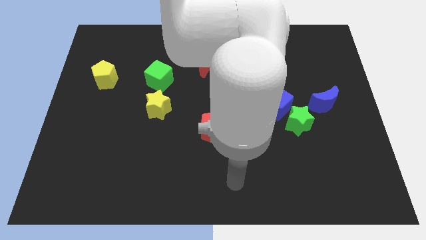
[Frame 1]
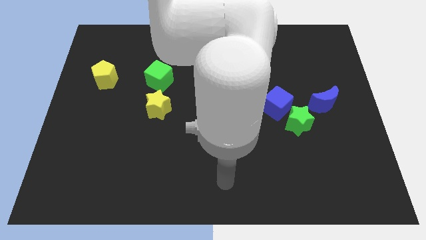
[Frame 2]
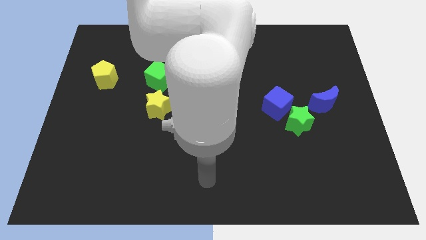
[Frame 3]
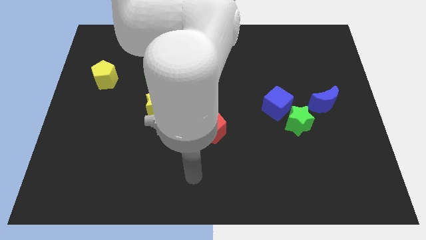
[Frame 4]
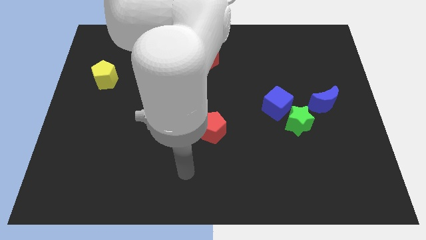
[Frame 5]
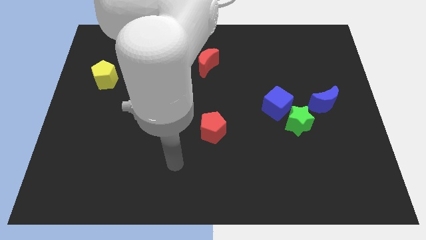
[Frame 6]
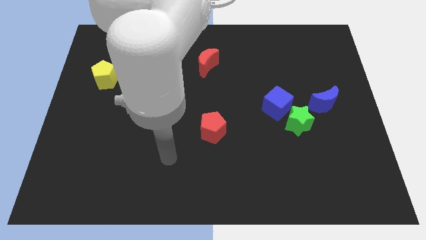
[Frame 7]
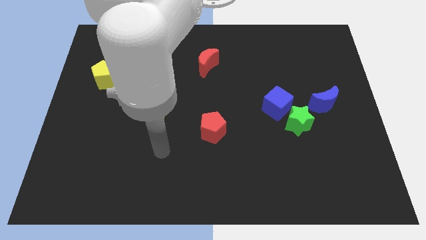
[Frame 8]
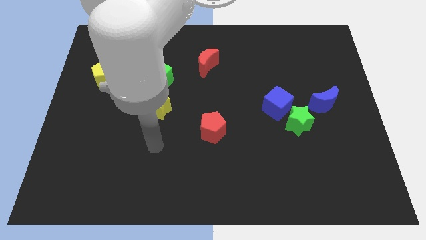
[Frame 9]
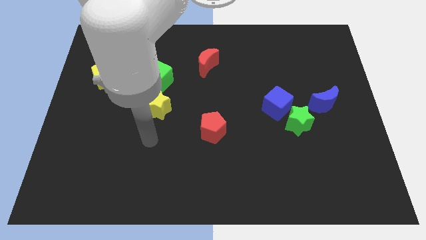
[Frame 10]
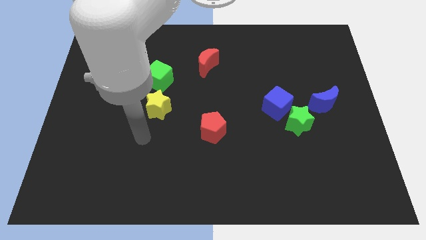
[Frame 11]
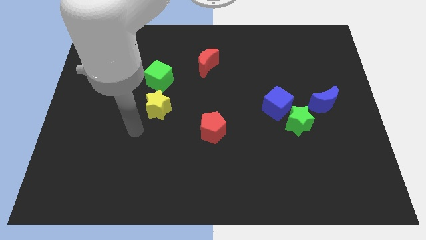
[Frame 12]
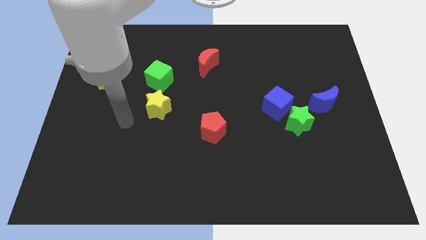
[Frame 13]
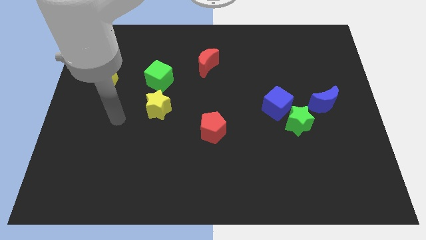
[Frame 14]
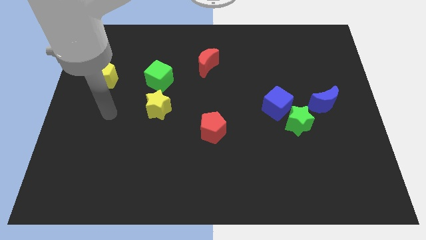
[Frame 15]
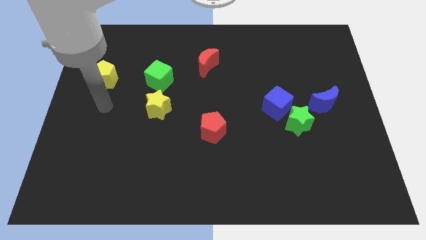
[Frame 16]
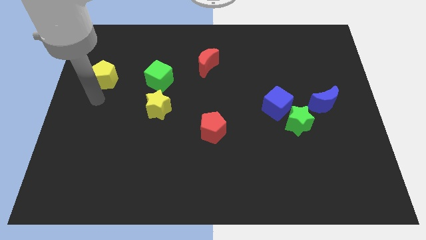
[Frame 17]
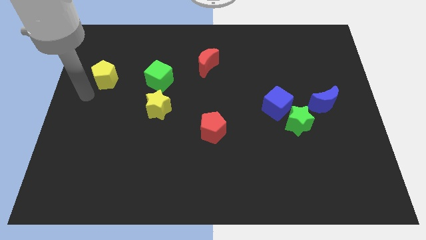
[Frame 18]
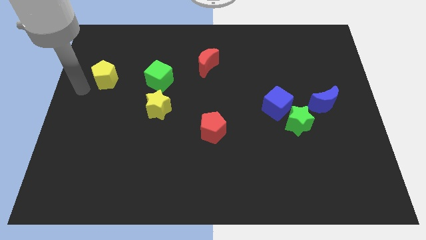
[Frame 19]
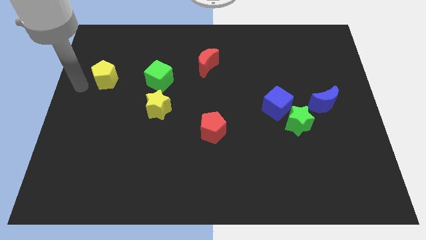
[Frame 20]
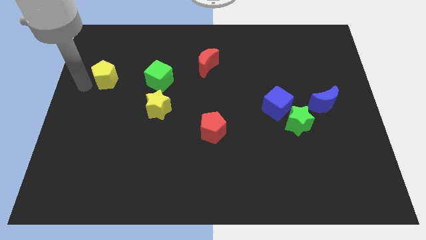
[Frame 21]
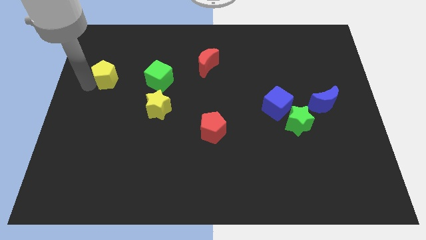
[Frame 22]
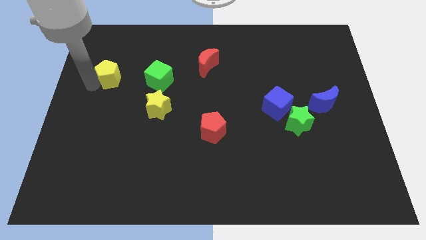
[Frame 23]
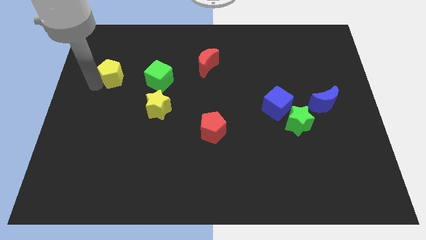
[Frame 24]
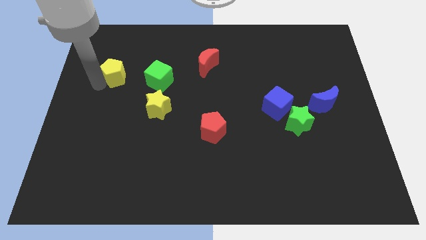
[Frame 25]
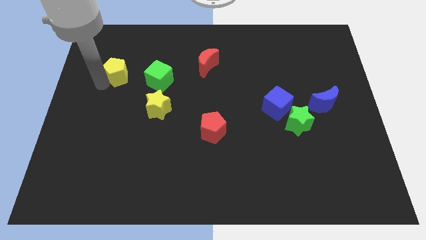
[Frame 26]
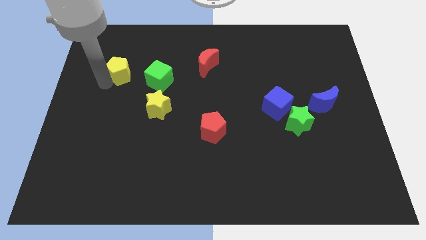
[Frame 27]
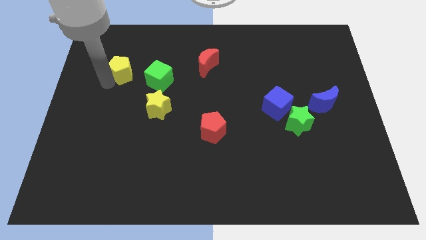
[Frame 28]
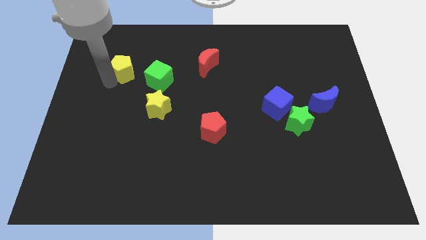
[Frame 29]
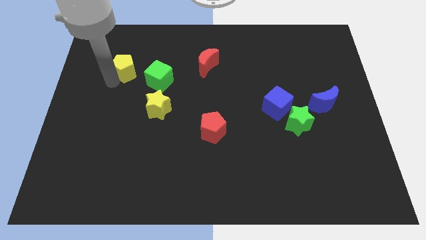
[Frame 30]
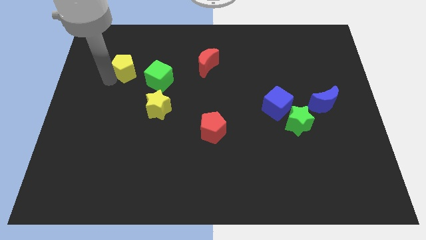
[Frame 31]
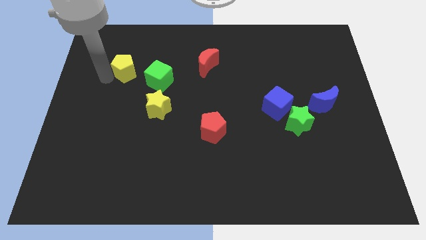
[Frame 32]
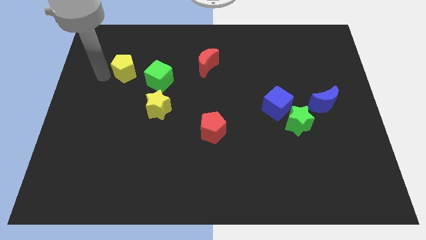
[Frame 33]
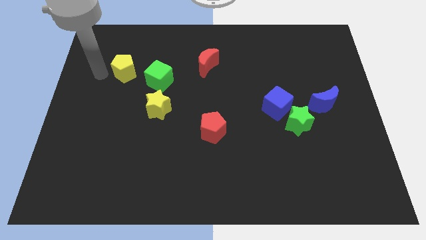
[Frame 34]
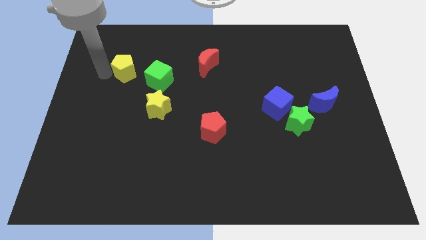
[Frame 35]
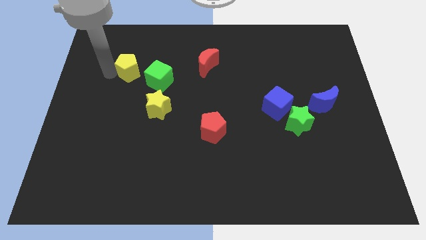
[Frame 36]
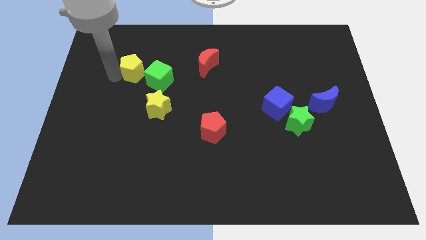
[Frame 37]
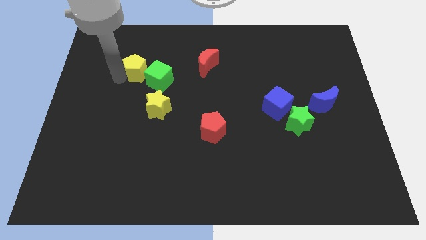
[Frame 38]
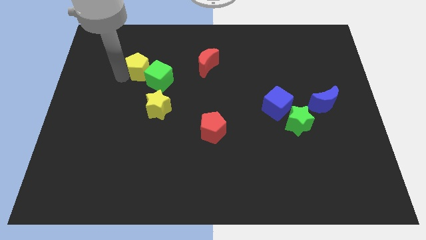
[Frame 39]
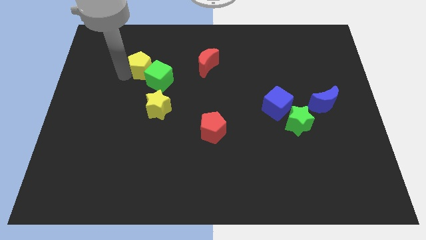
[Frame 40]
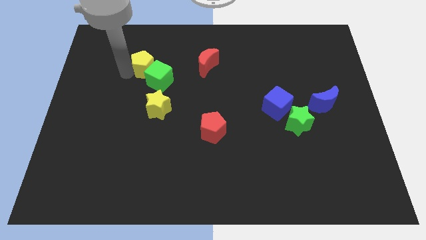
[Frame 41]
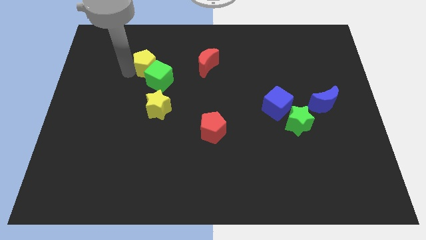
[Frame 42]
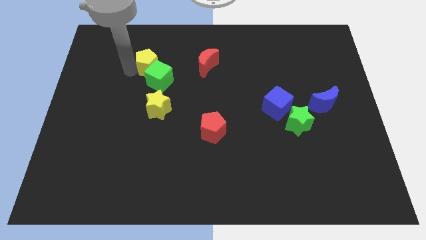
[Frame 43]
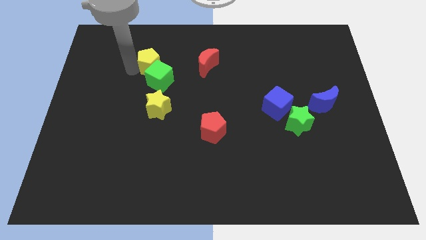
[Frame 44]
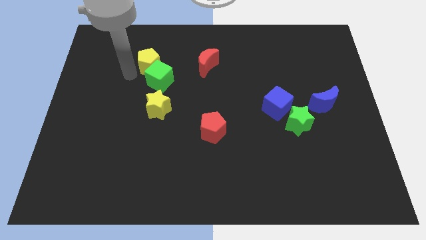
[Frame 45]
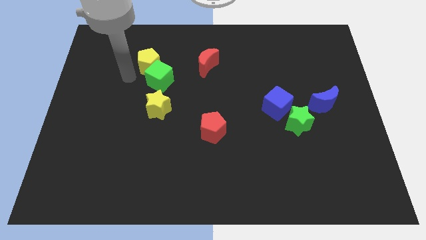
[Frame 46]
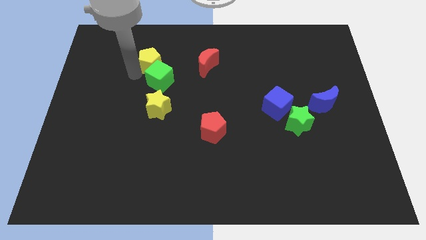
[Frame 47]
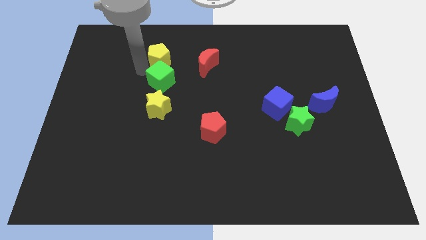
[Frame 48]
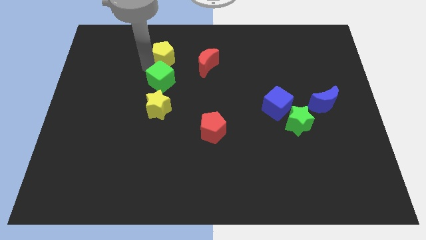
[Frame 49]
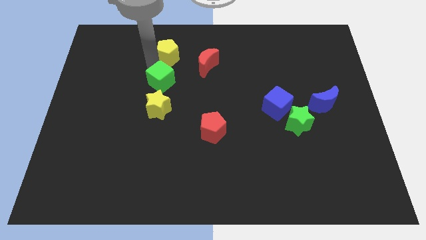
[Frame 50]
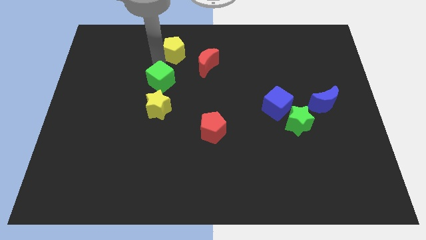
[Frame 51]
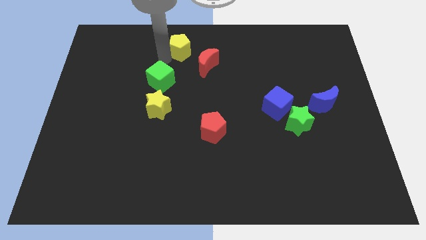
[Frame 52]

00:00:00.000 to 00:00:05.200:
move the yellow pentagon to the top side

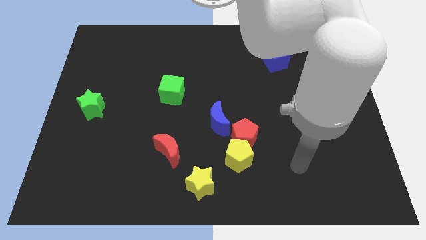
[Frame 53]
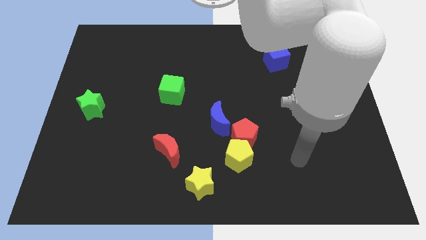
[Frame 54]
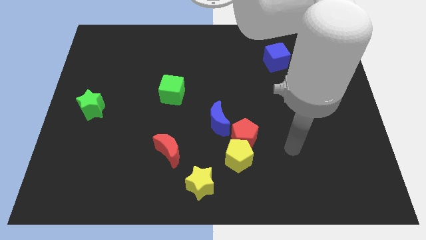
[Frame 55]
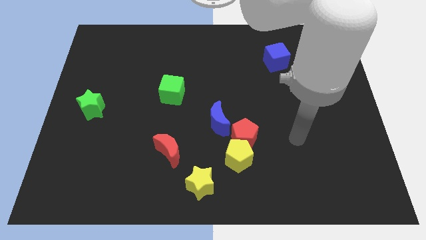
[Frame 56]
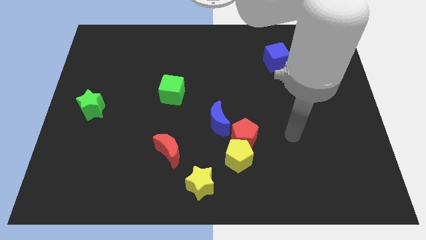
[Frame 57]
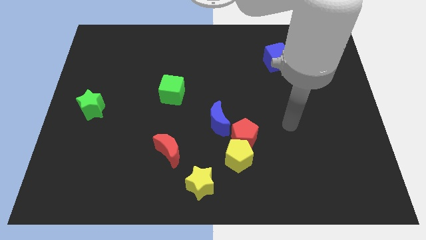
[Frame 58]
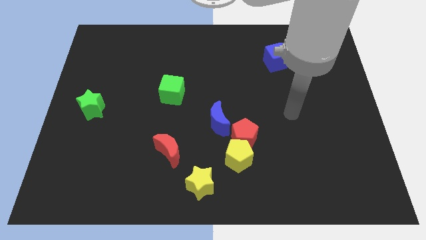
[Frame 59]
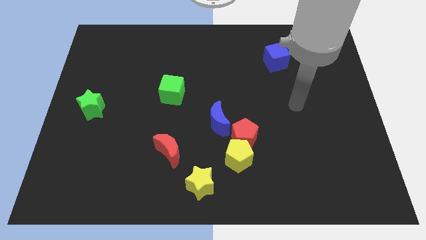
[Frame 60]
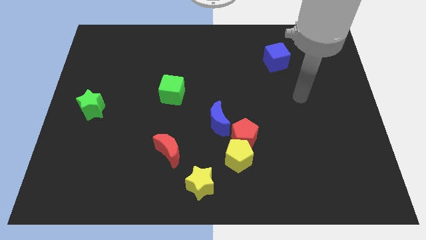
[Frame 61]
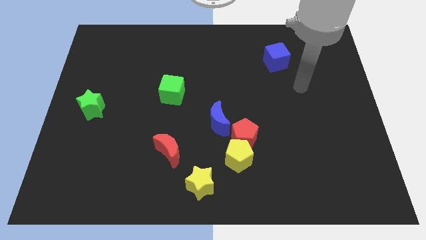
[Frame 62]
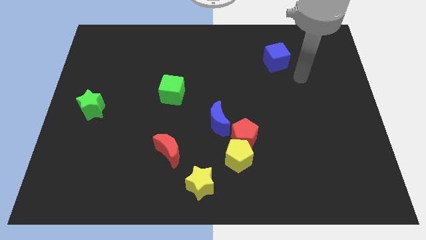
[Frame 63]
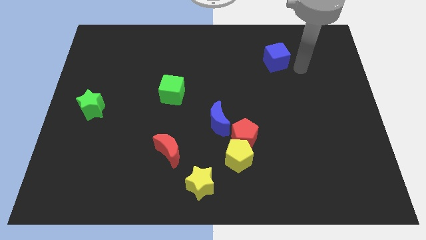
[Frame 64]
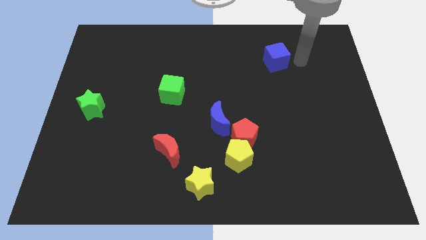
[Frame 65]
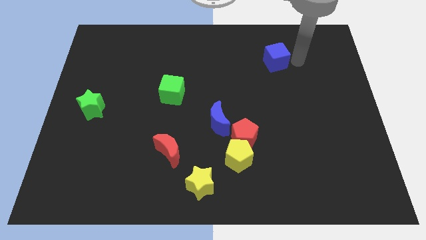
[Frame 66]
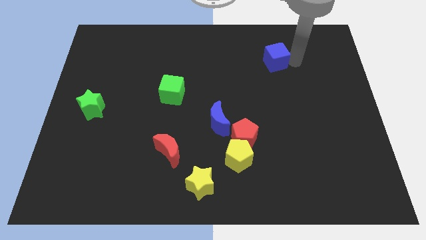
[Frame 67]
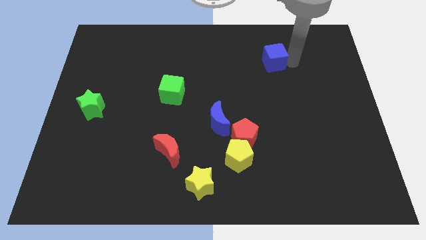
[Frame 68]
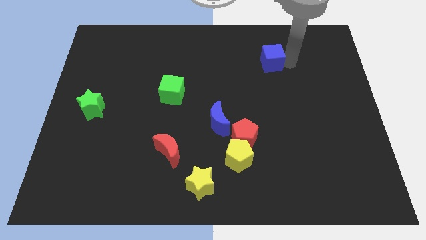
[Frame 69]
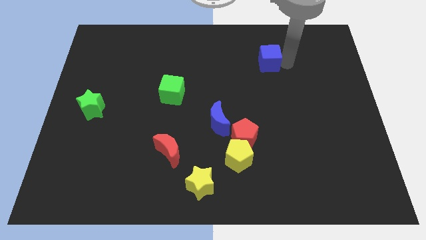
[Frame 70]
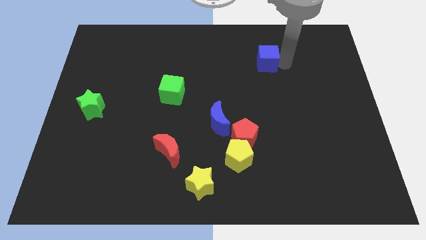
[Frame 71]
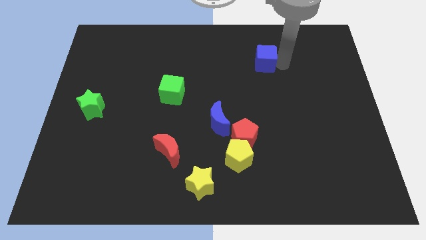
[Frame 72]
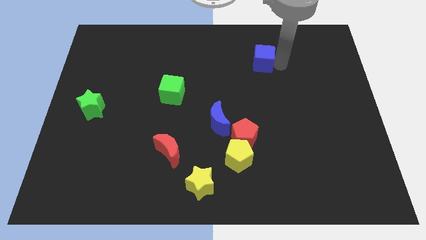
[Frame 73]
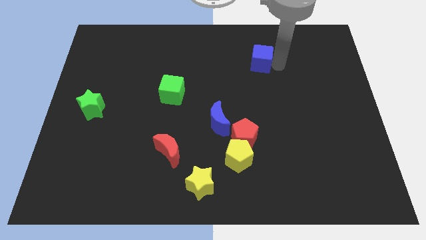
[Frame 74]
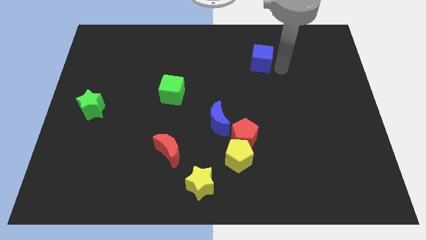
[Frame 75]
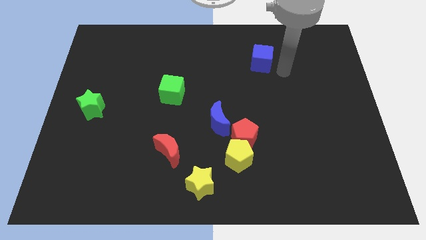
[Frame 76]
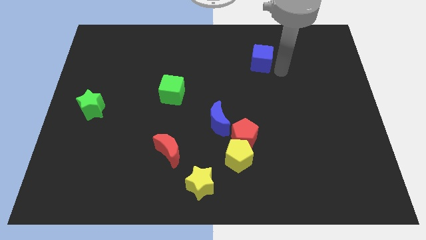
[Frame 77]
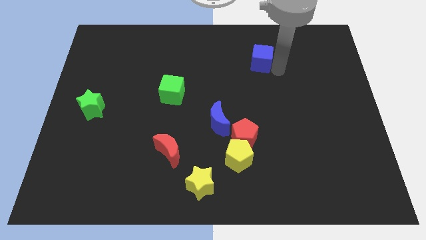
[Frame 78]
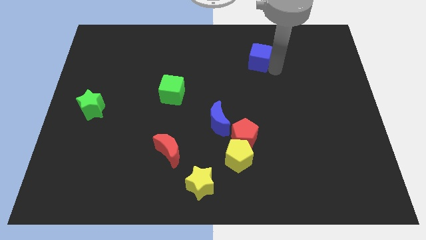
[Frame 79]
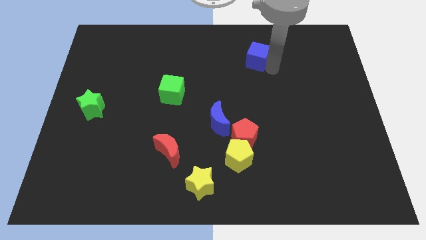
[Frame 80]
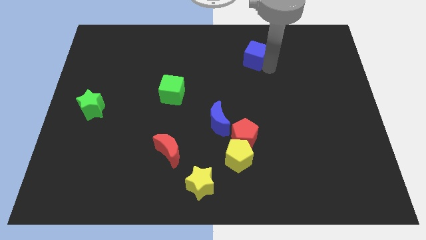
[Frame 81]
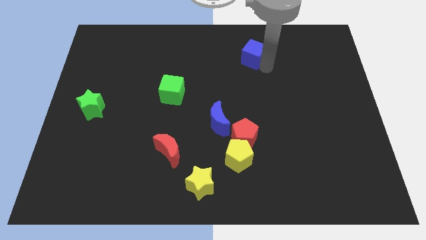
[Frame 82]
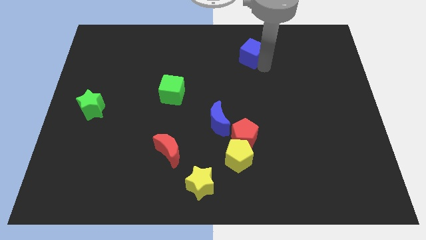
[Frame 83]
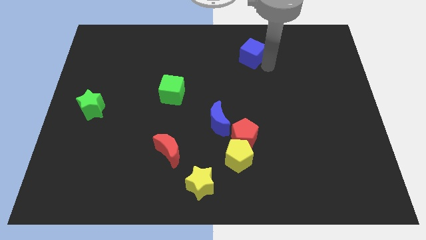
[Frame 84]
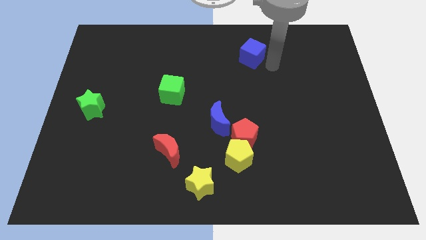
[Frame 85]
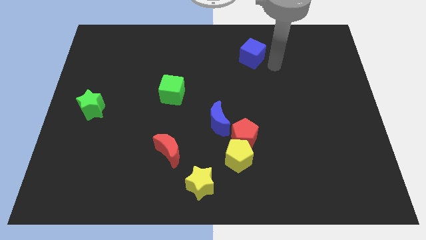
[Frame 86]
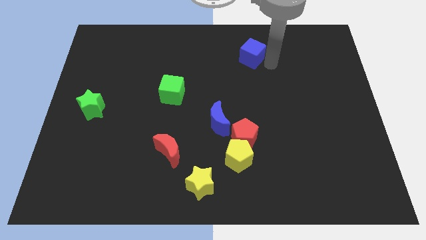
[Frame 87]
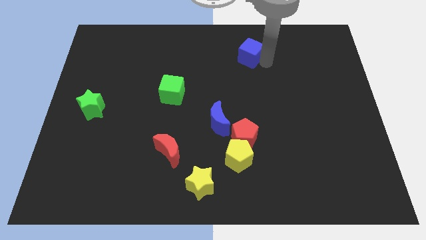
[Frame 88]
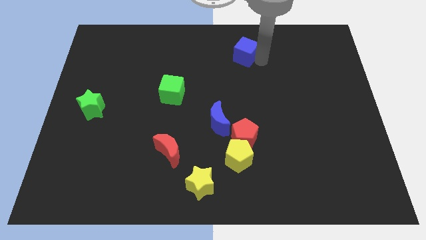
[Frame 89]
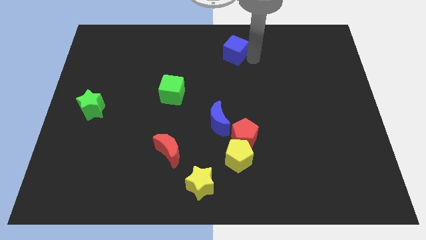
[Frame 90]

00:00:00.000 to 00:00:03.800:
move the blue cube to the top side
